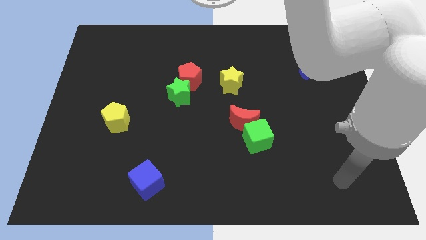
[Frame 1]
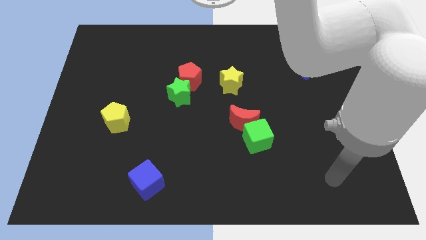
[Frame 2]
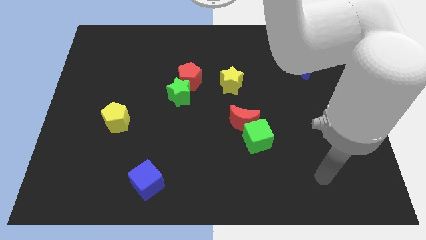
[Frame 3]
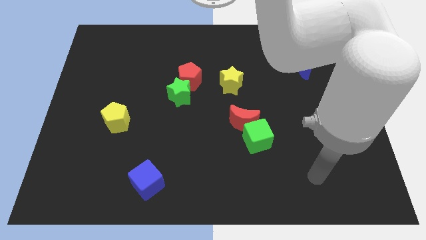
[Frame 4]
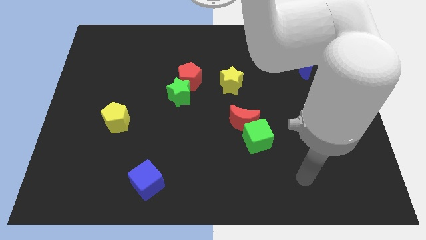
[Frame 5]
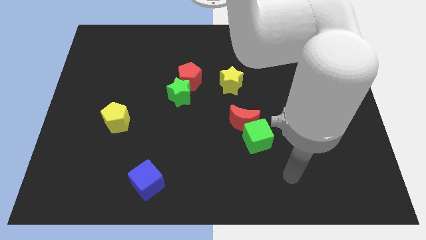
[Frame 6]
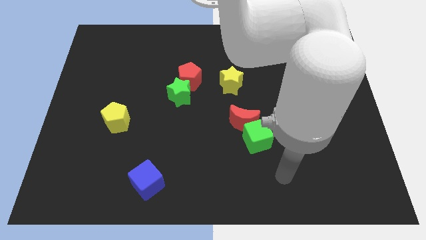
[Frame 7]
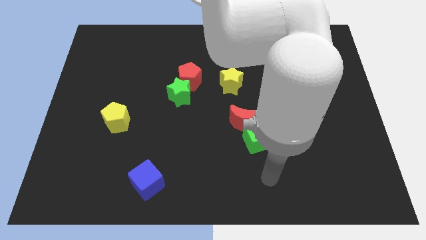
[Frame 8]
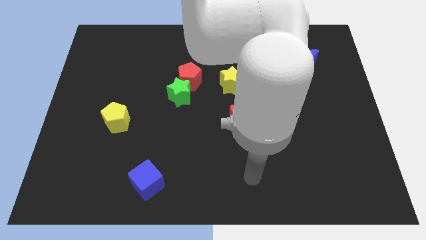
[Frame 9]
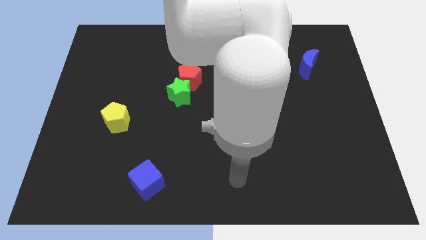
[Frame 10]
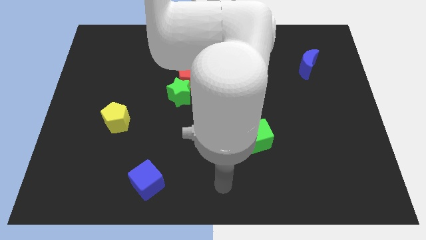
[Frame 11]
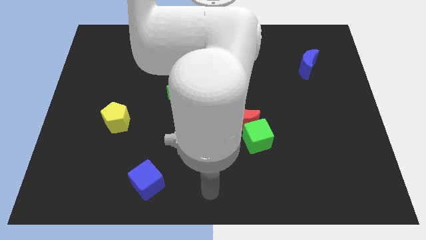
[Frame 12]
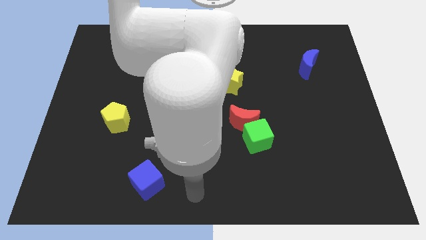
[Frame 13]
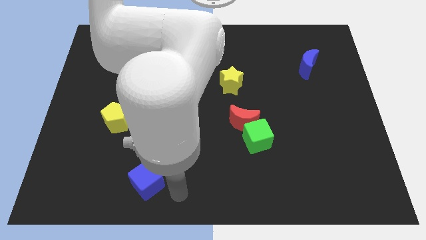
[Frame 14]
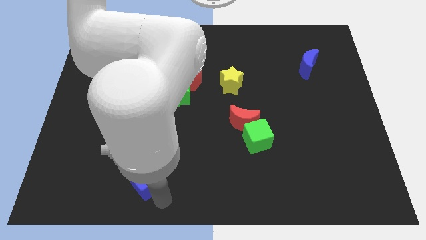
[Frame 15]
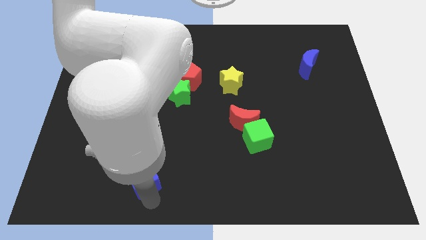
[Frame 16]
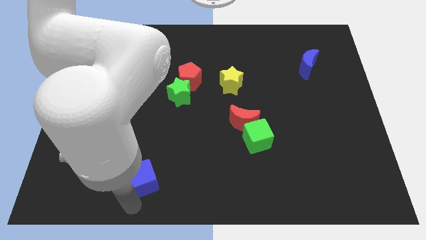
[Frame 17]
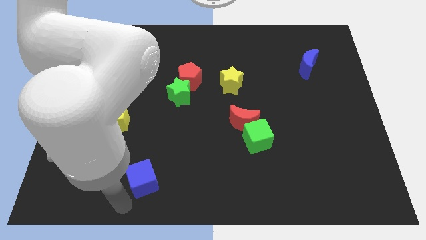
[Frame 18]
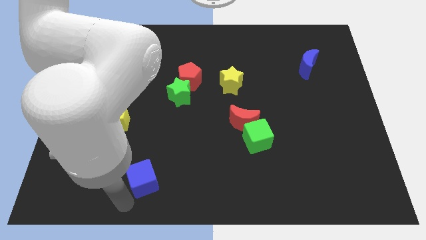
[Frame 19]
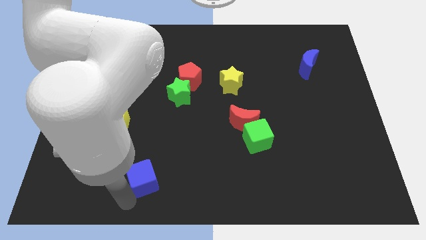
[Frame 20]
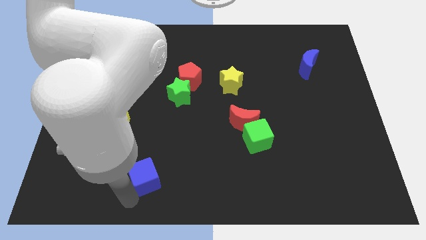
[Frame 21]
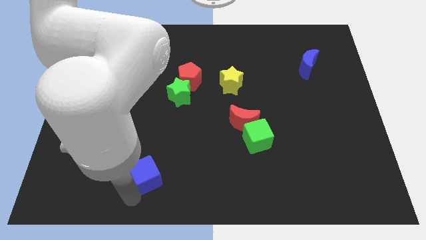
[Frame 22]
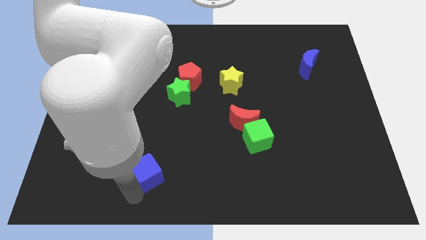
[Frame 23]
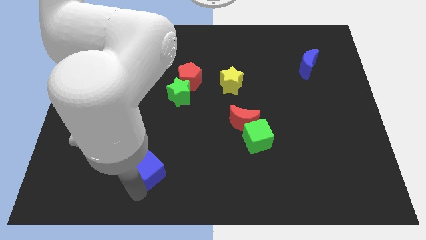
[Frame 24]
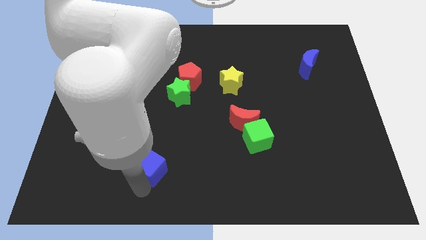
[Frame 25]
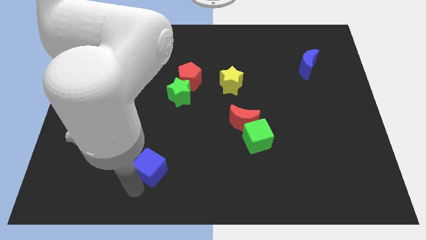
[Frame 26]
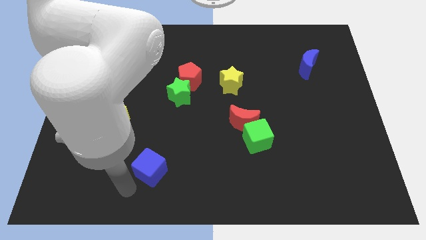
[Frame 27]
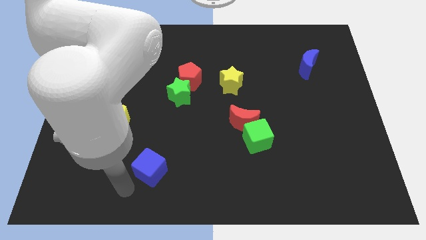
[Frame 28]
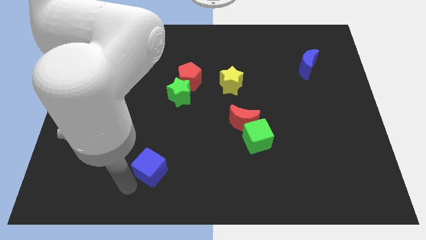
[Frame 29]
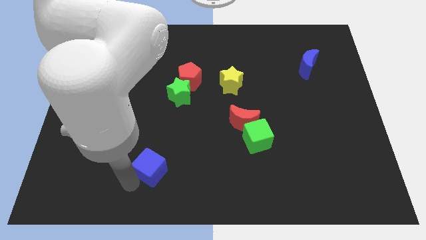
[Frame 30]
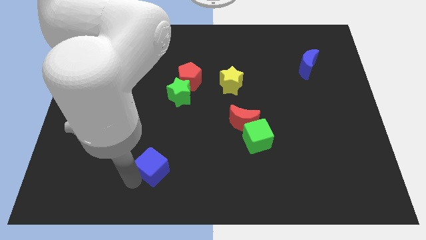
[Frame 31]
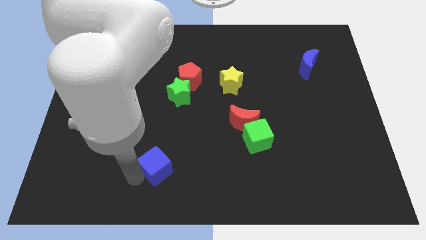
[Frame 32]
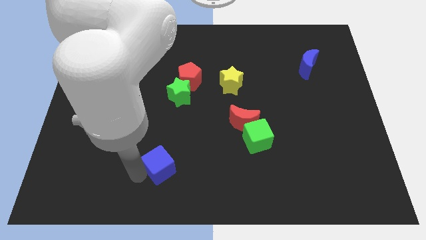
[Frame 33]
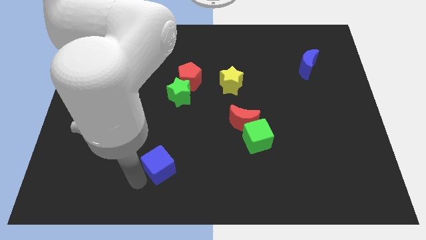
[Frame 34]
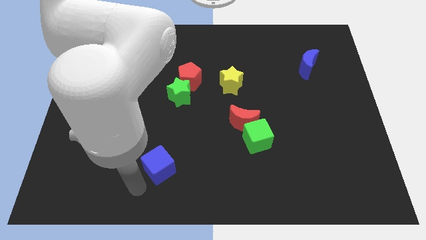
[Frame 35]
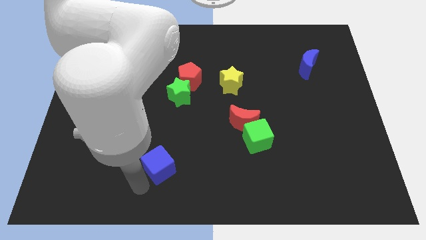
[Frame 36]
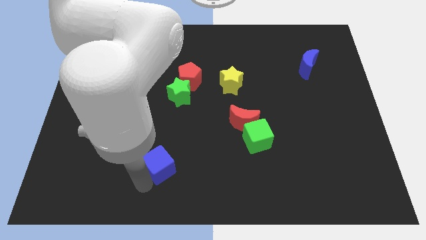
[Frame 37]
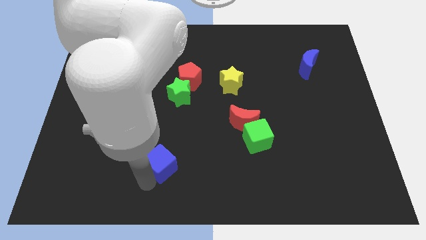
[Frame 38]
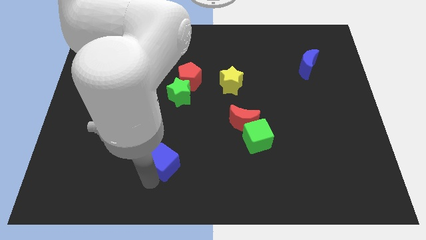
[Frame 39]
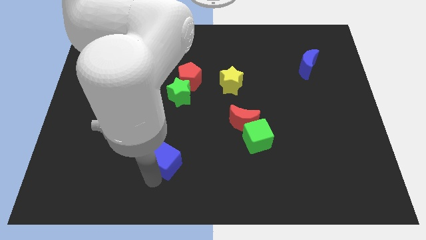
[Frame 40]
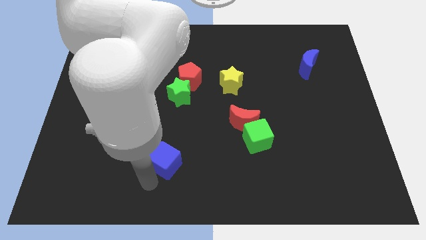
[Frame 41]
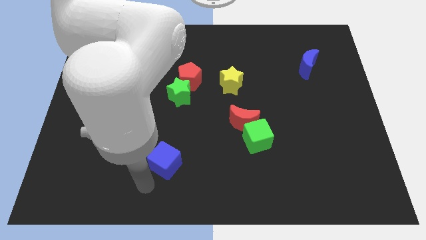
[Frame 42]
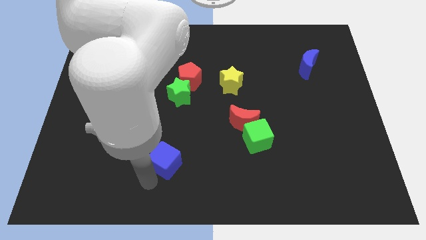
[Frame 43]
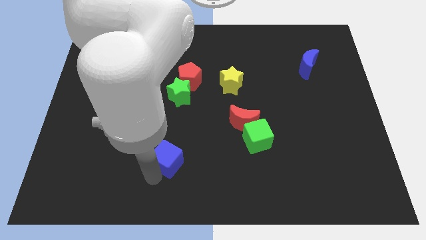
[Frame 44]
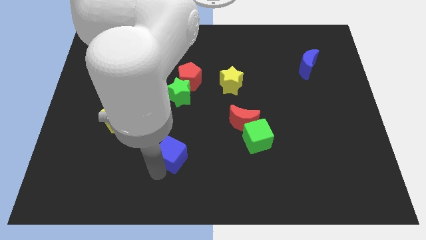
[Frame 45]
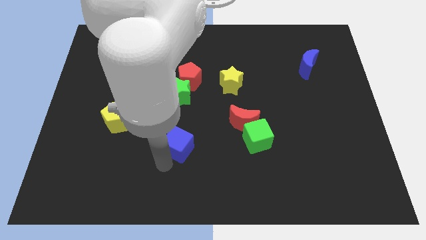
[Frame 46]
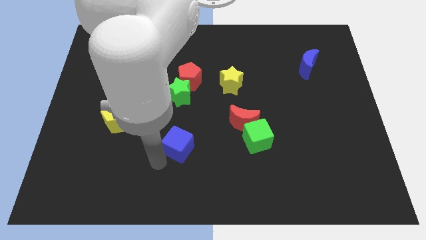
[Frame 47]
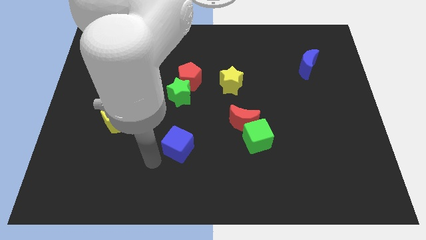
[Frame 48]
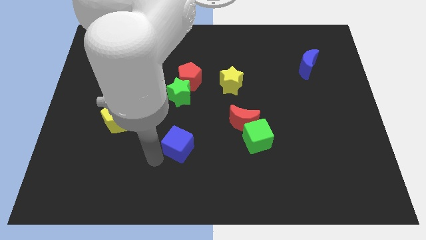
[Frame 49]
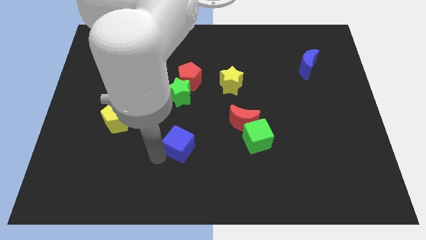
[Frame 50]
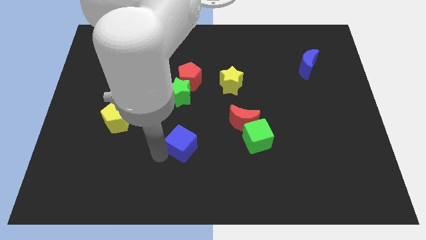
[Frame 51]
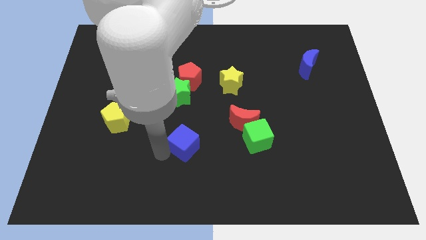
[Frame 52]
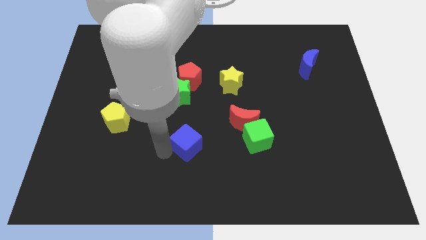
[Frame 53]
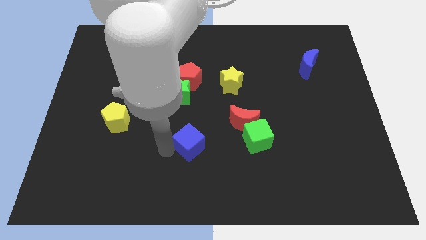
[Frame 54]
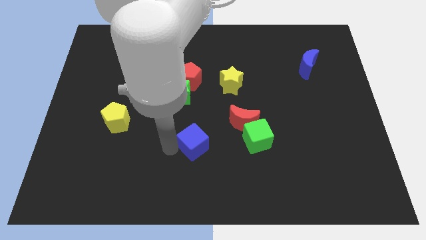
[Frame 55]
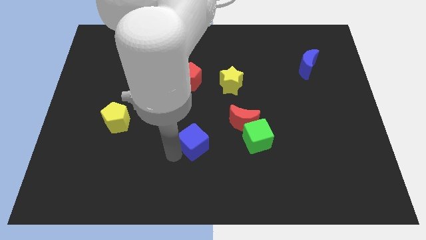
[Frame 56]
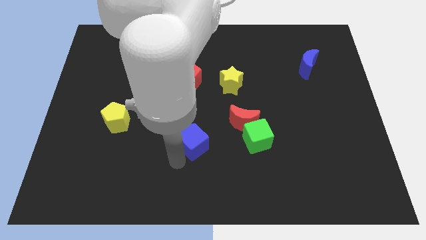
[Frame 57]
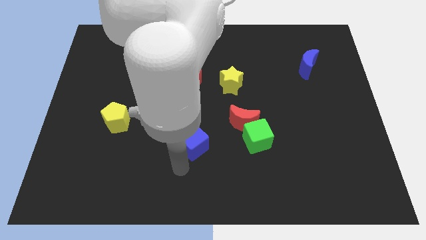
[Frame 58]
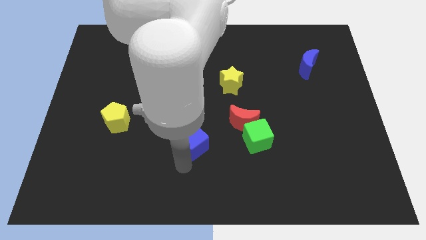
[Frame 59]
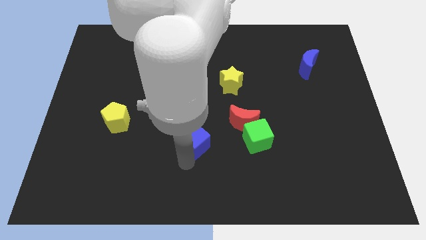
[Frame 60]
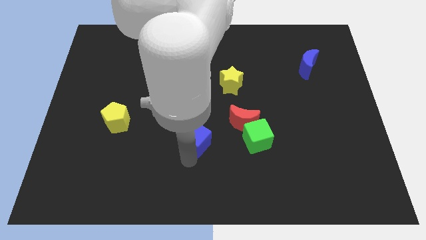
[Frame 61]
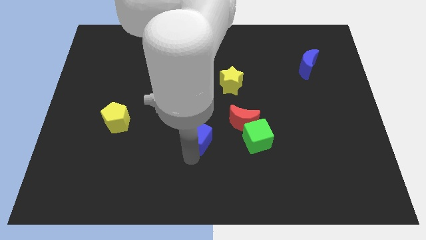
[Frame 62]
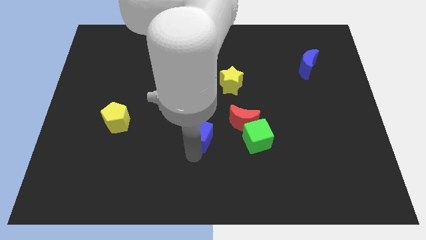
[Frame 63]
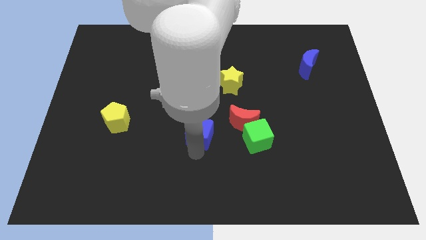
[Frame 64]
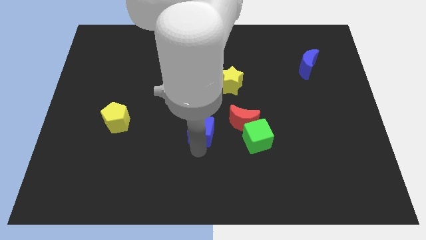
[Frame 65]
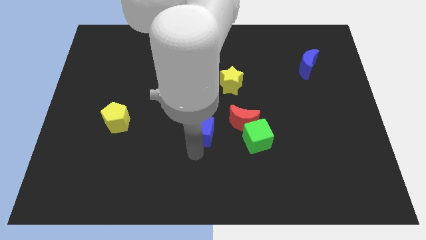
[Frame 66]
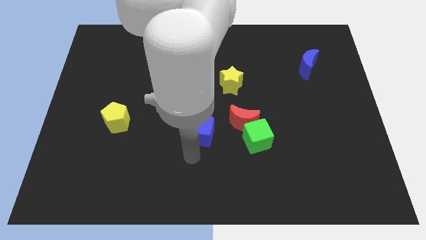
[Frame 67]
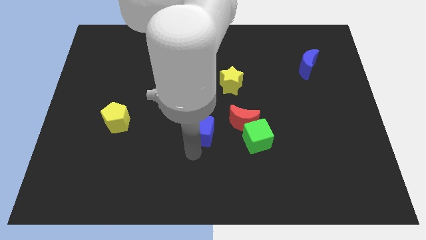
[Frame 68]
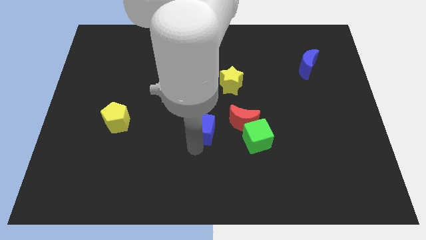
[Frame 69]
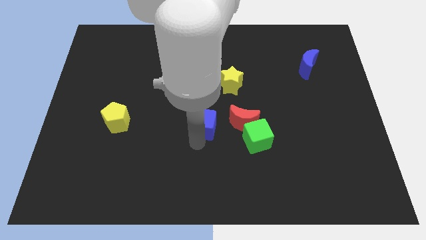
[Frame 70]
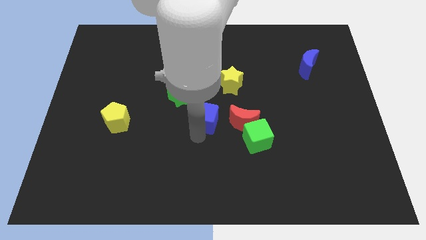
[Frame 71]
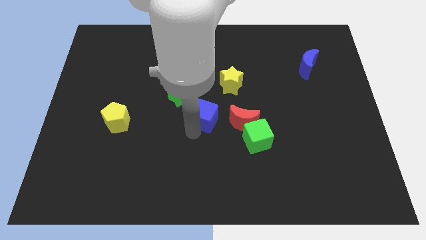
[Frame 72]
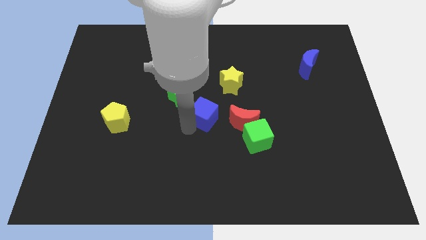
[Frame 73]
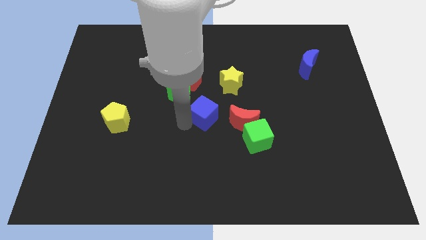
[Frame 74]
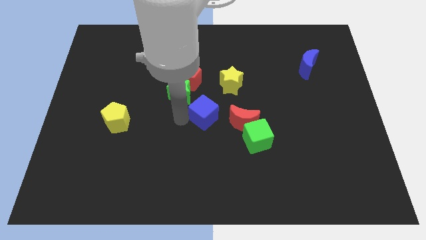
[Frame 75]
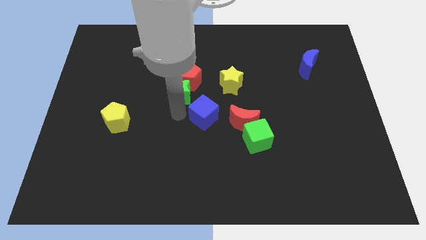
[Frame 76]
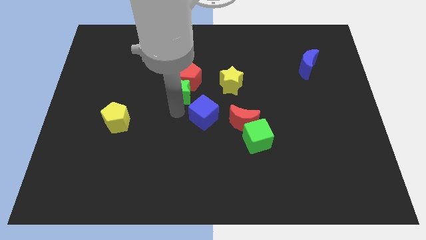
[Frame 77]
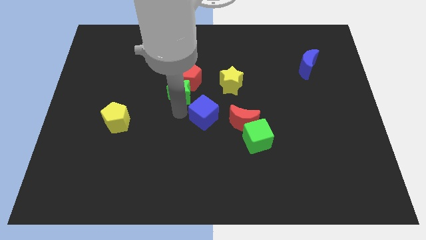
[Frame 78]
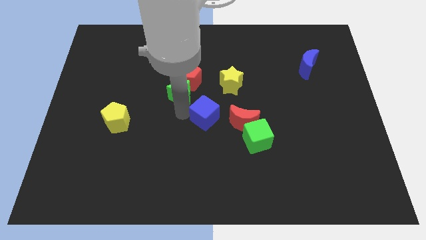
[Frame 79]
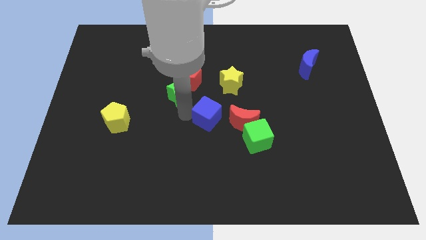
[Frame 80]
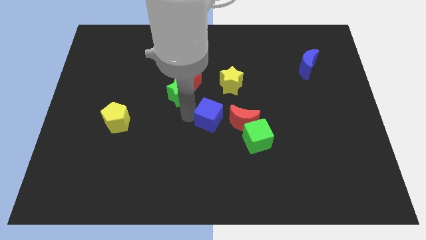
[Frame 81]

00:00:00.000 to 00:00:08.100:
push the blue cube to the top left side of the green cube
